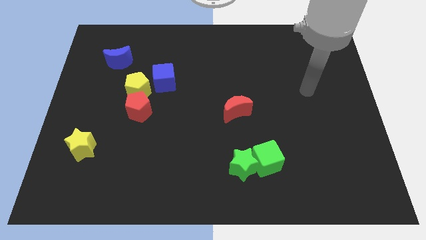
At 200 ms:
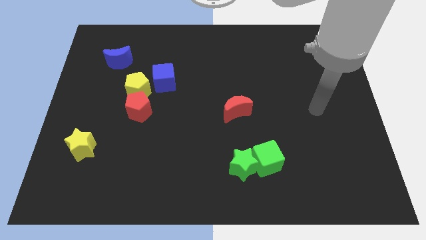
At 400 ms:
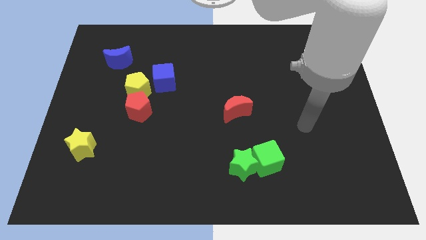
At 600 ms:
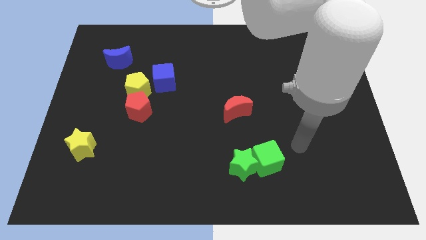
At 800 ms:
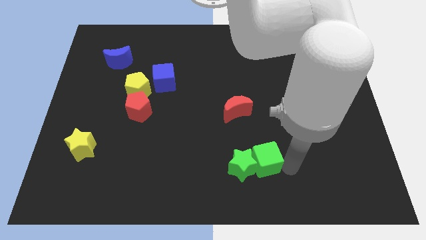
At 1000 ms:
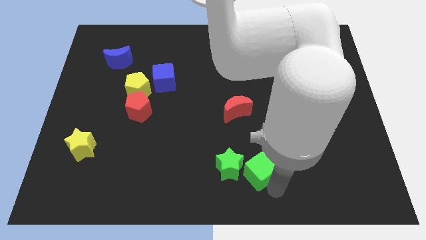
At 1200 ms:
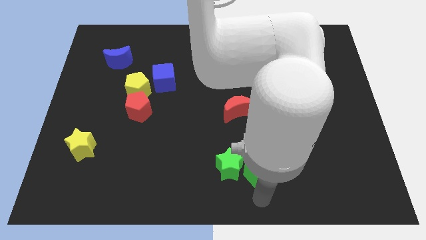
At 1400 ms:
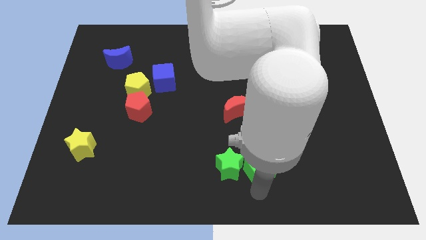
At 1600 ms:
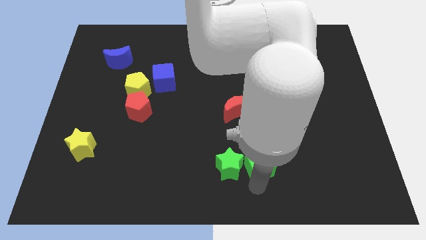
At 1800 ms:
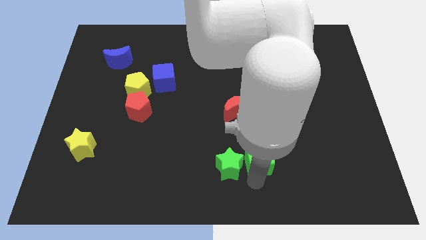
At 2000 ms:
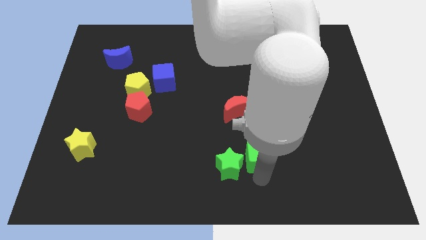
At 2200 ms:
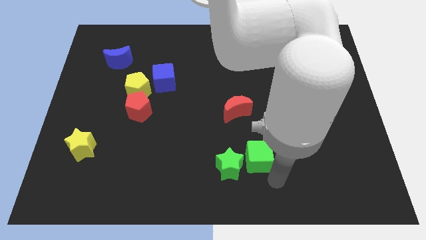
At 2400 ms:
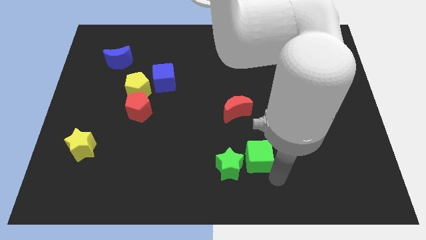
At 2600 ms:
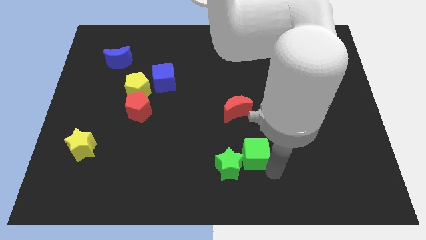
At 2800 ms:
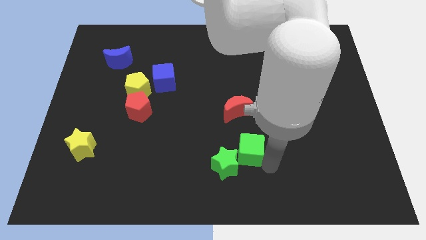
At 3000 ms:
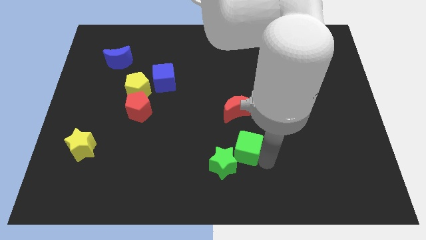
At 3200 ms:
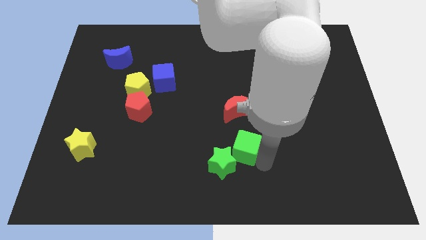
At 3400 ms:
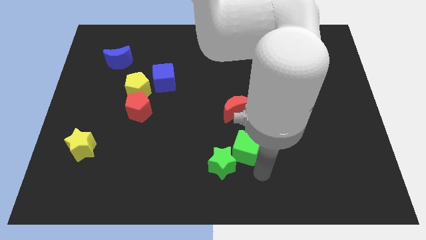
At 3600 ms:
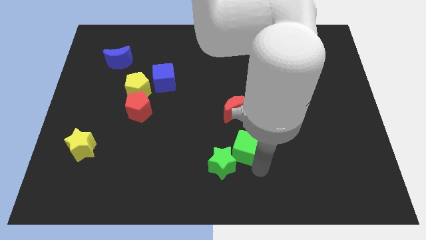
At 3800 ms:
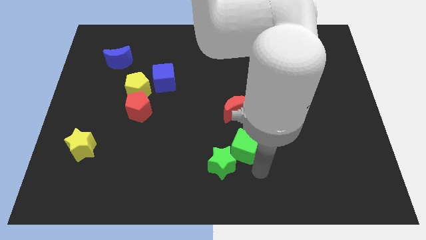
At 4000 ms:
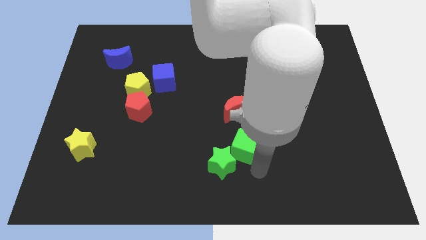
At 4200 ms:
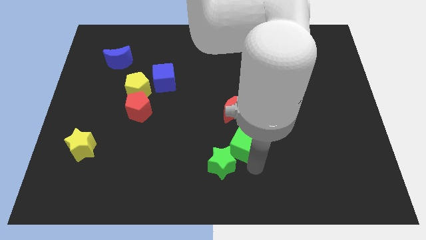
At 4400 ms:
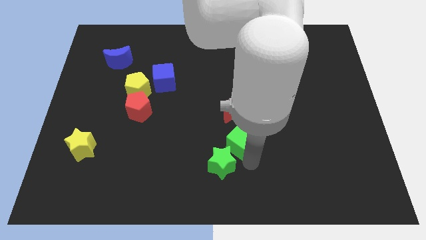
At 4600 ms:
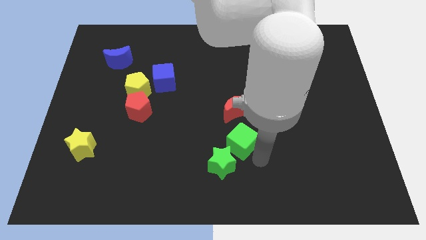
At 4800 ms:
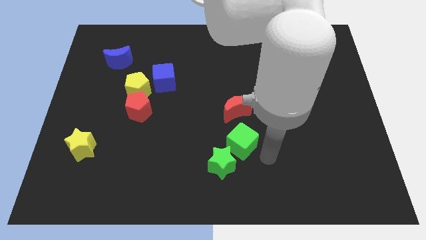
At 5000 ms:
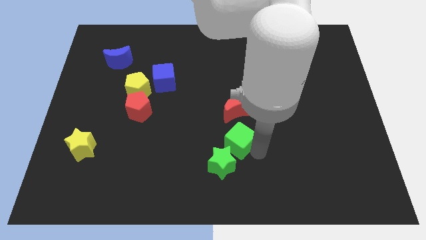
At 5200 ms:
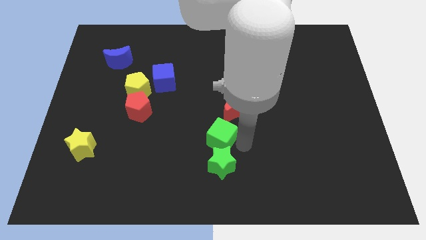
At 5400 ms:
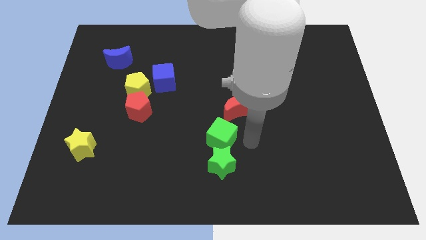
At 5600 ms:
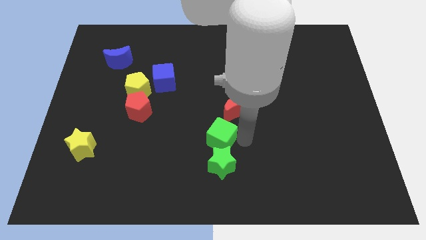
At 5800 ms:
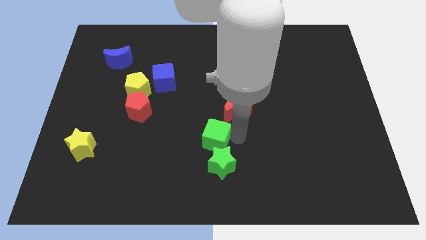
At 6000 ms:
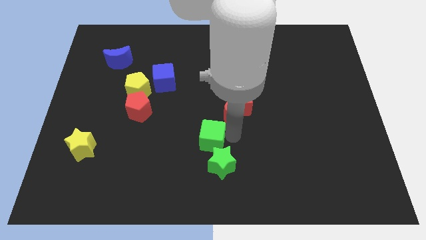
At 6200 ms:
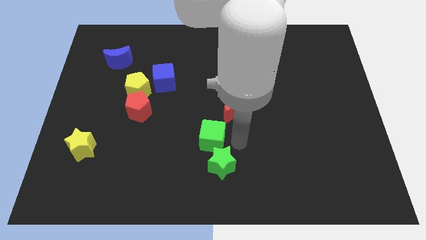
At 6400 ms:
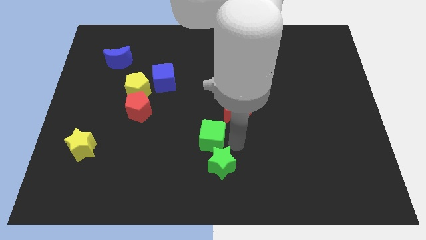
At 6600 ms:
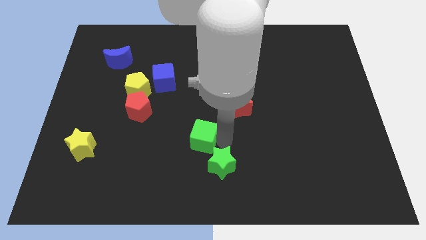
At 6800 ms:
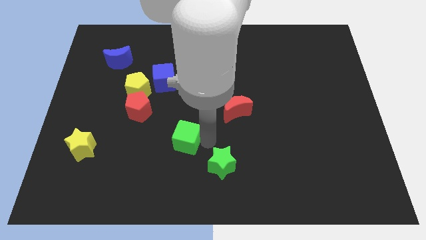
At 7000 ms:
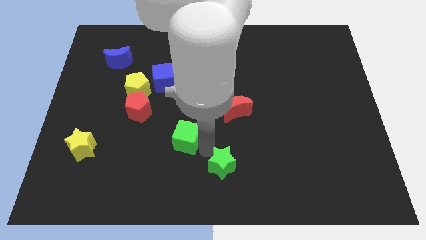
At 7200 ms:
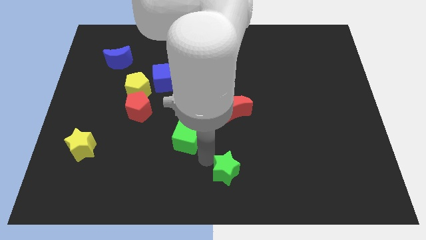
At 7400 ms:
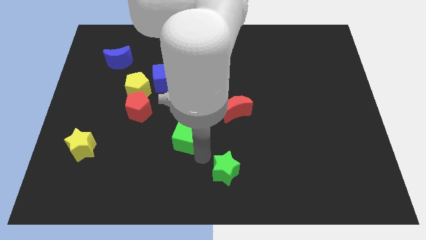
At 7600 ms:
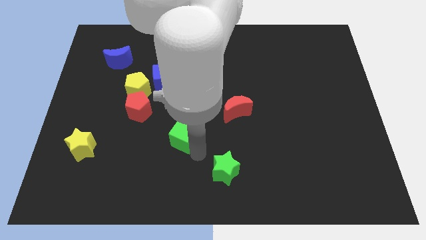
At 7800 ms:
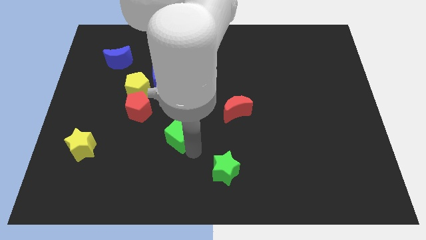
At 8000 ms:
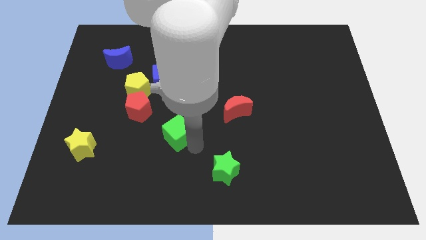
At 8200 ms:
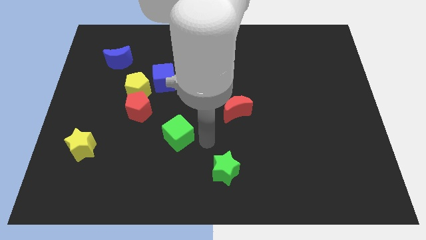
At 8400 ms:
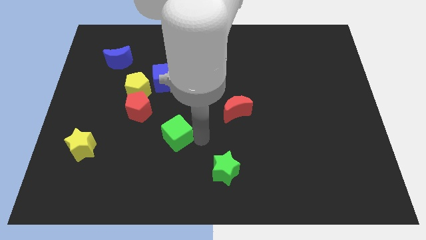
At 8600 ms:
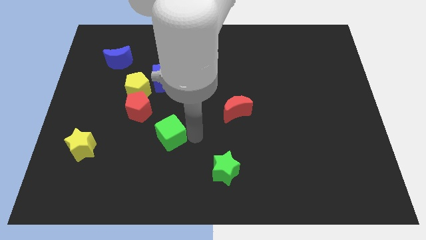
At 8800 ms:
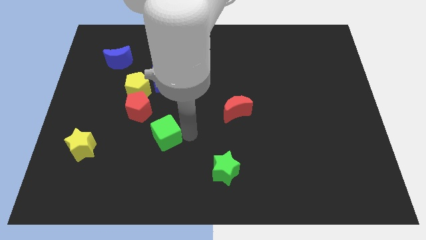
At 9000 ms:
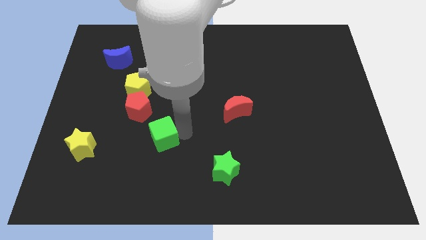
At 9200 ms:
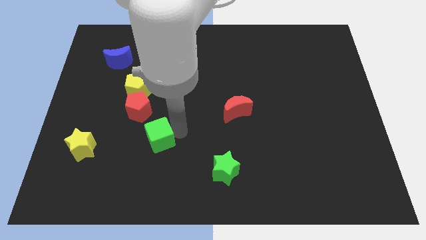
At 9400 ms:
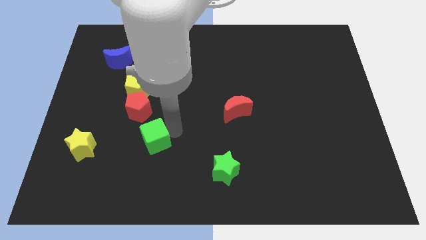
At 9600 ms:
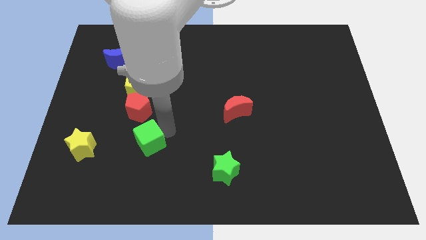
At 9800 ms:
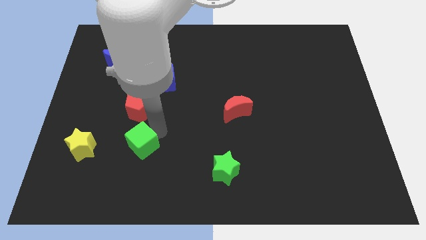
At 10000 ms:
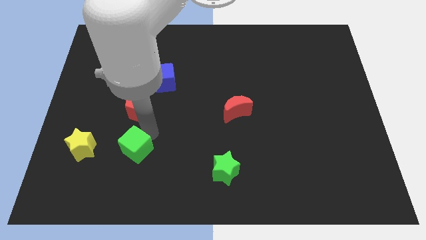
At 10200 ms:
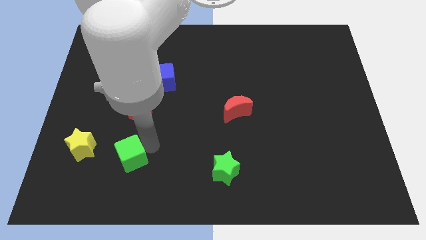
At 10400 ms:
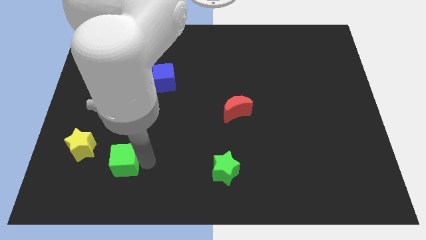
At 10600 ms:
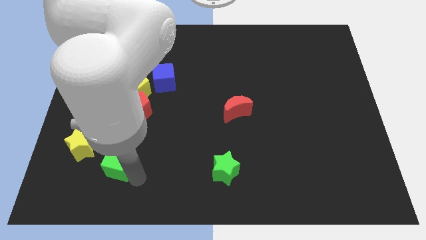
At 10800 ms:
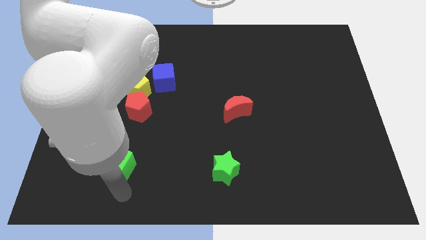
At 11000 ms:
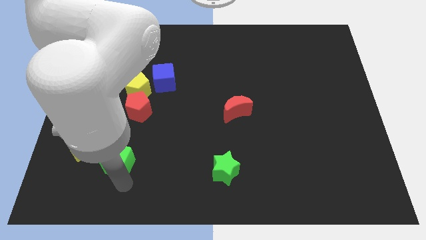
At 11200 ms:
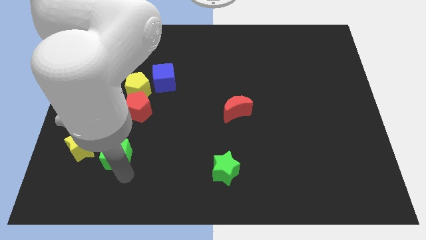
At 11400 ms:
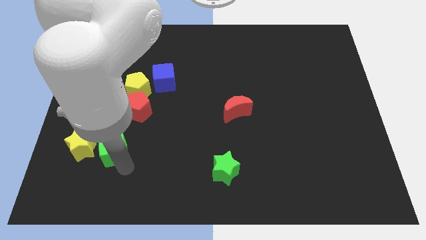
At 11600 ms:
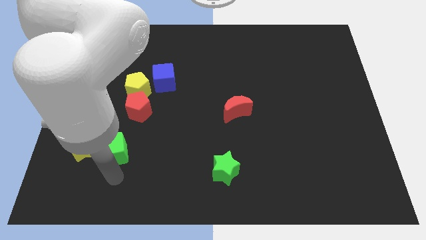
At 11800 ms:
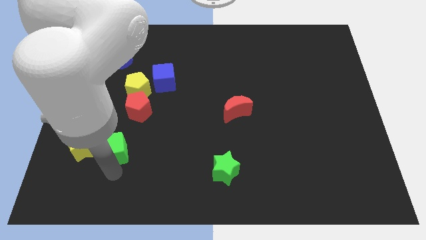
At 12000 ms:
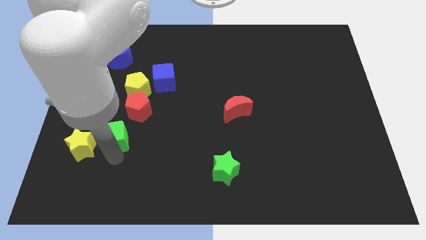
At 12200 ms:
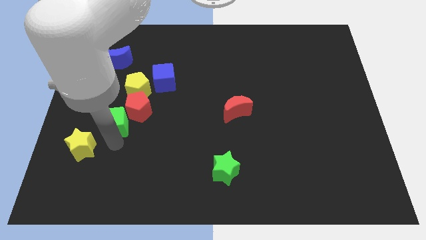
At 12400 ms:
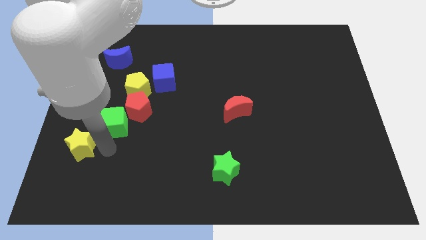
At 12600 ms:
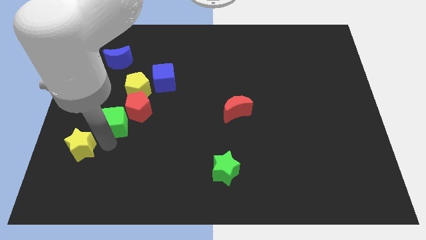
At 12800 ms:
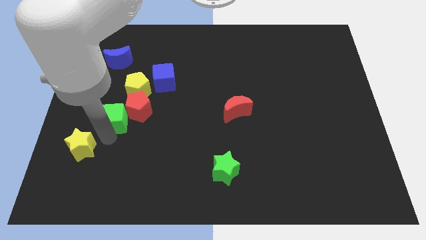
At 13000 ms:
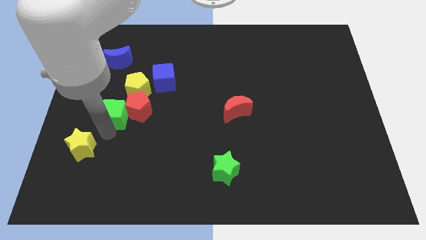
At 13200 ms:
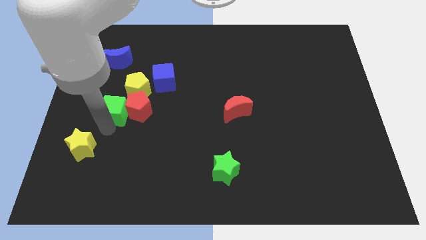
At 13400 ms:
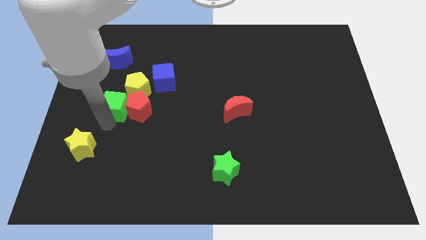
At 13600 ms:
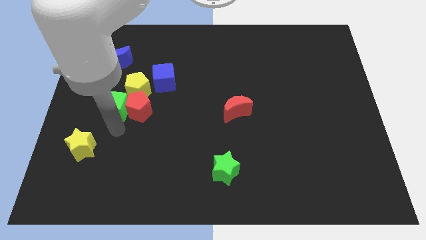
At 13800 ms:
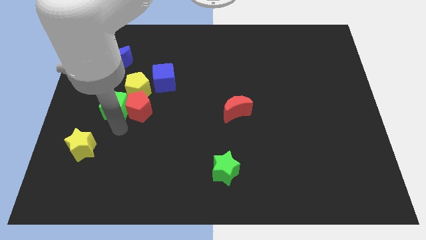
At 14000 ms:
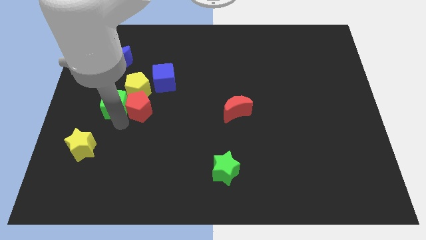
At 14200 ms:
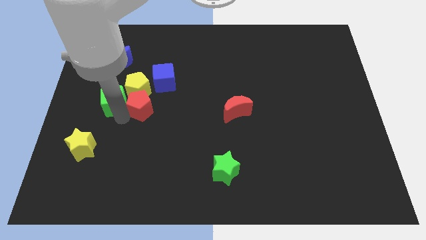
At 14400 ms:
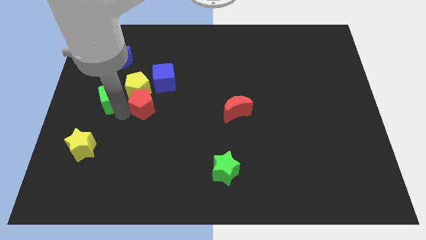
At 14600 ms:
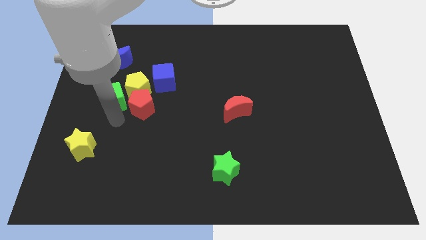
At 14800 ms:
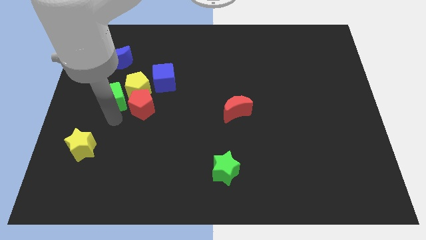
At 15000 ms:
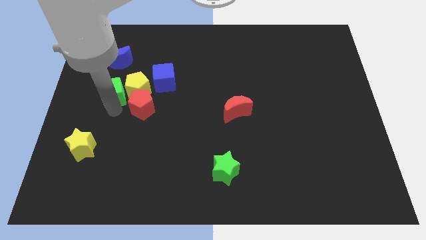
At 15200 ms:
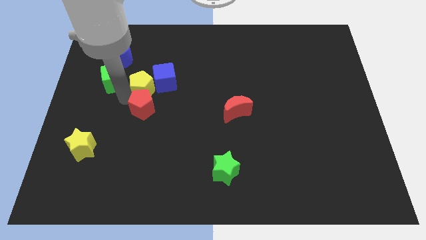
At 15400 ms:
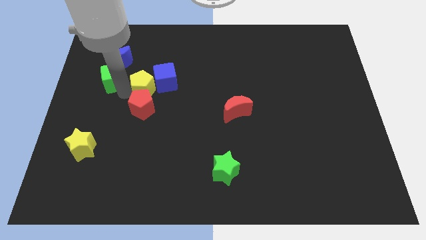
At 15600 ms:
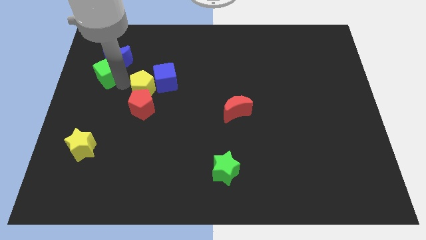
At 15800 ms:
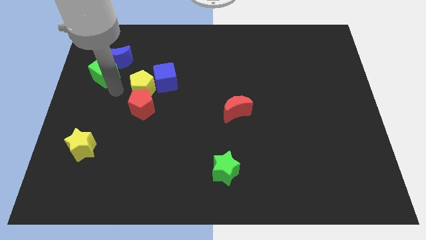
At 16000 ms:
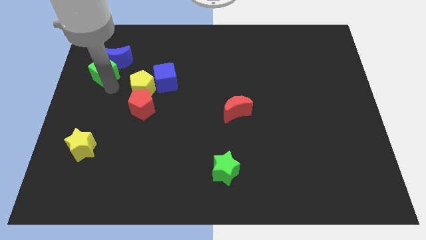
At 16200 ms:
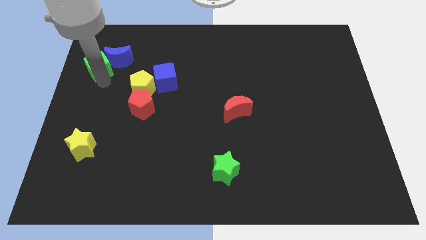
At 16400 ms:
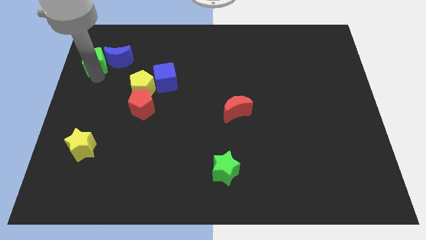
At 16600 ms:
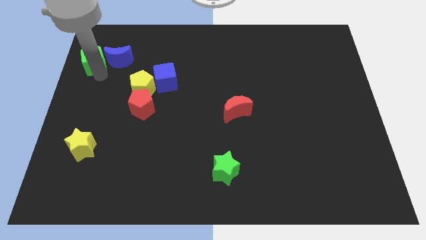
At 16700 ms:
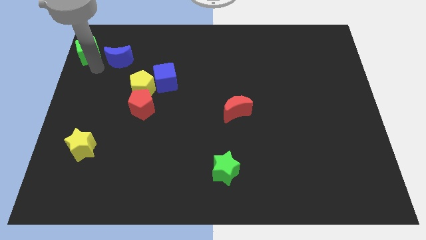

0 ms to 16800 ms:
slide the green cube to the upper left corner
